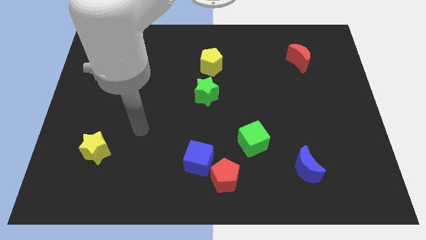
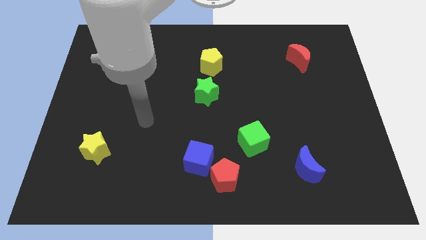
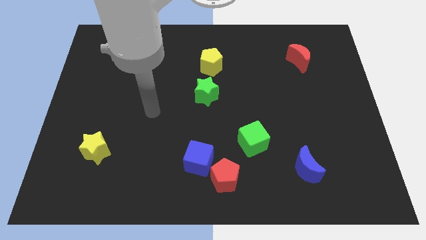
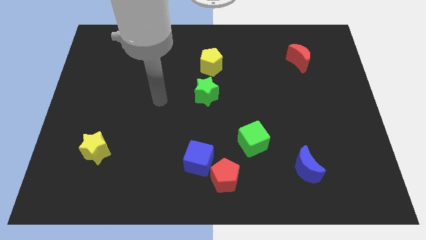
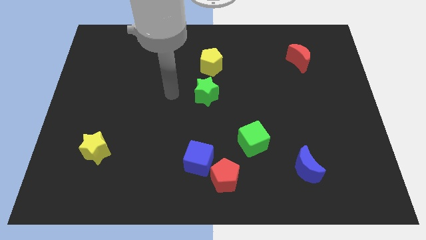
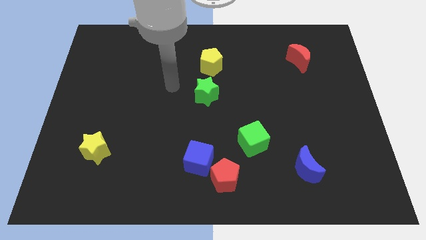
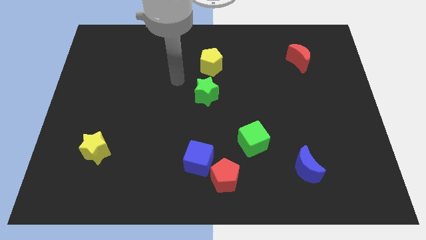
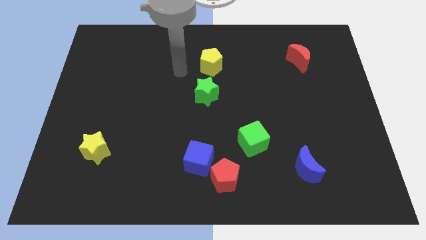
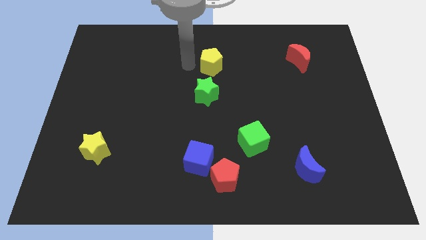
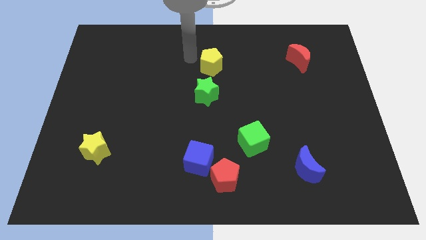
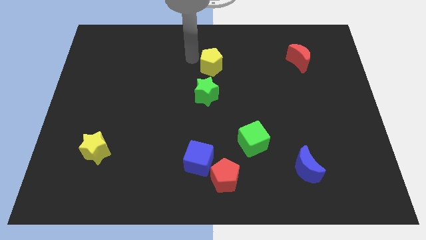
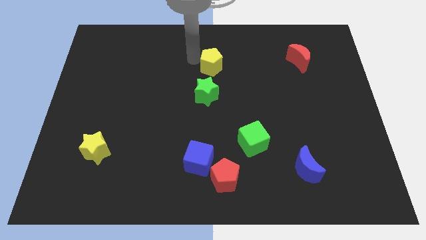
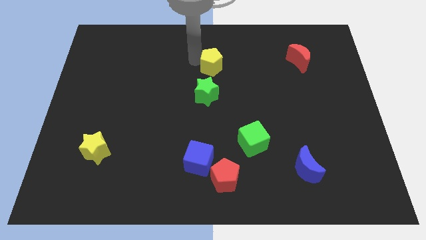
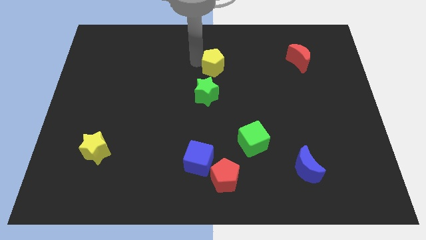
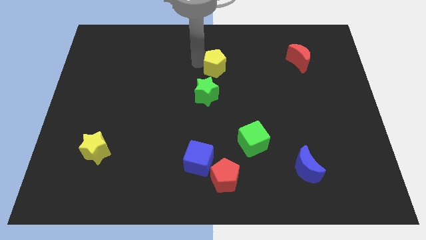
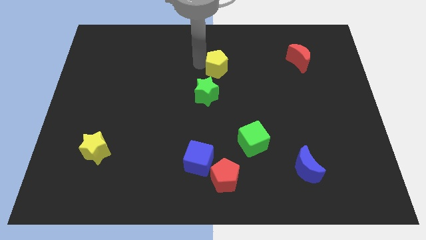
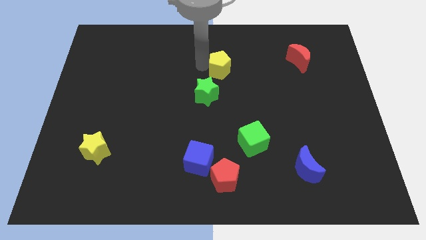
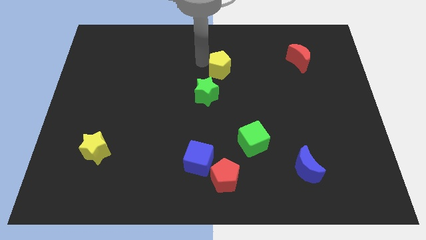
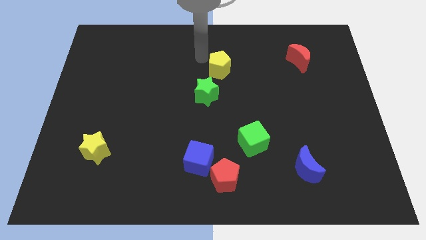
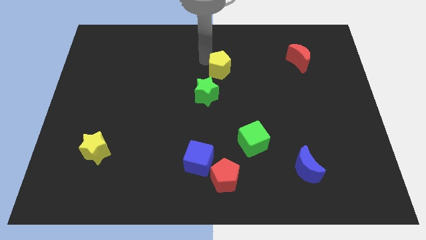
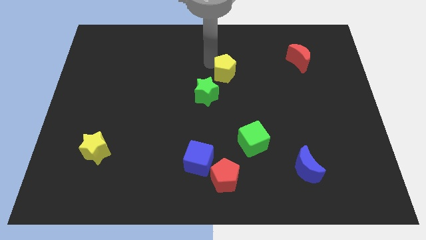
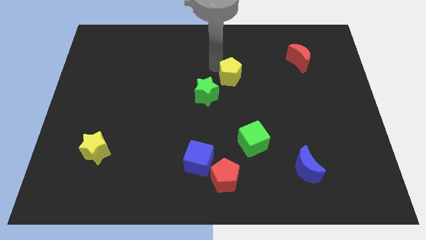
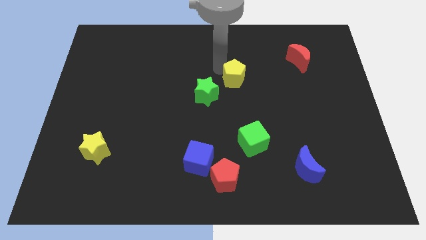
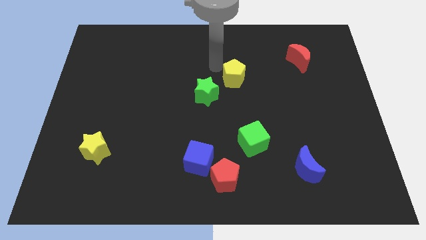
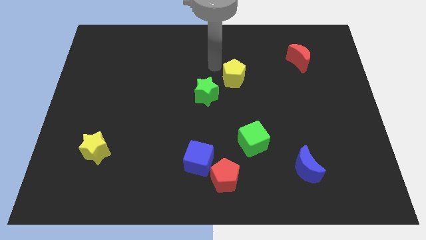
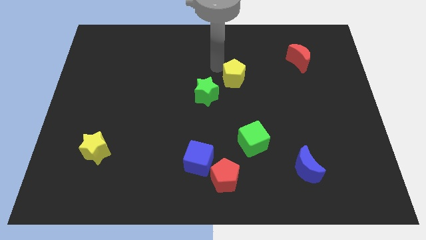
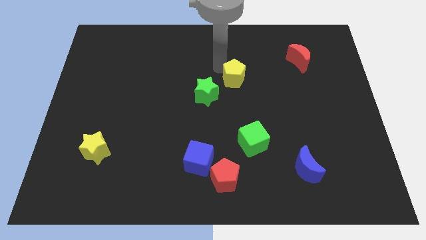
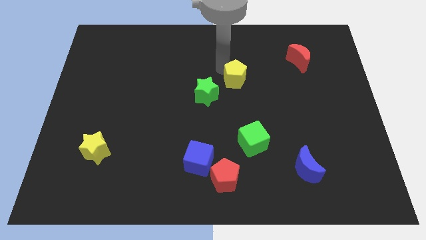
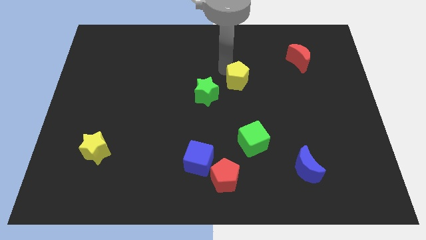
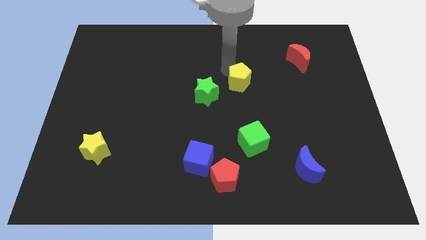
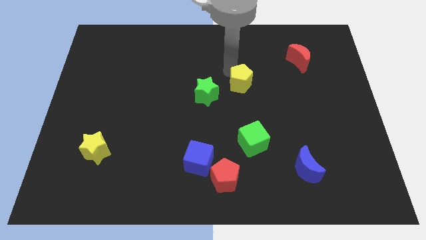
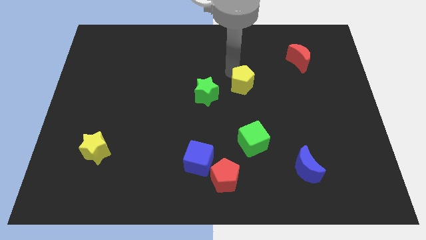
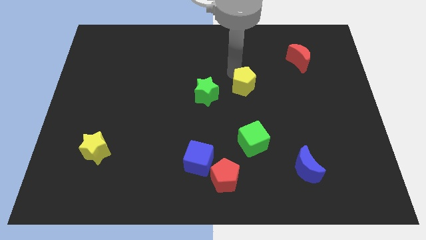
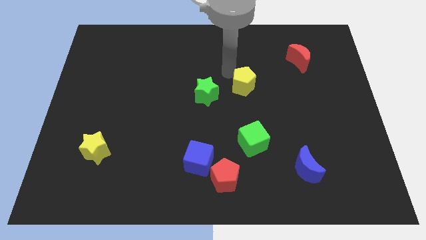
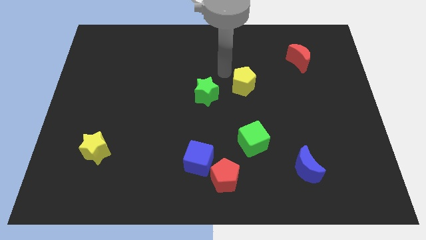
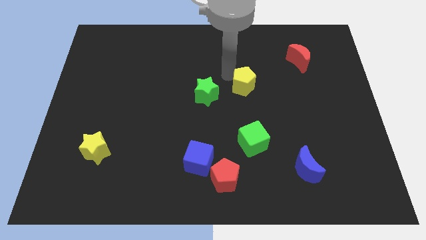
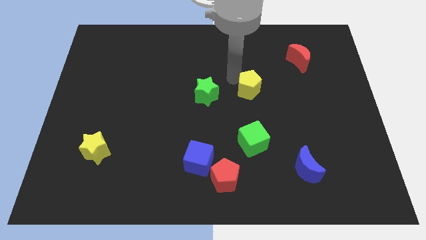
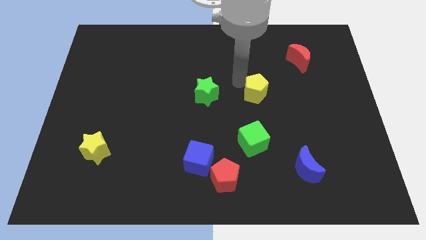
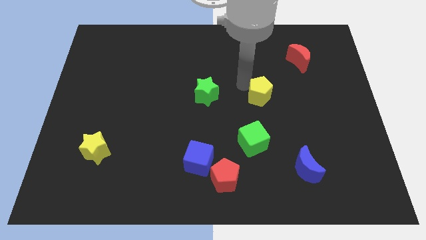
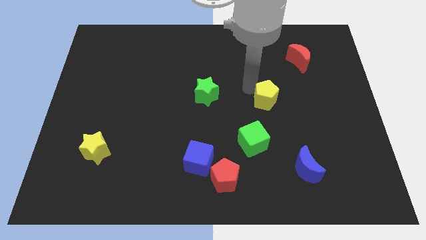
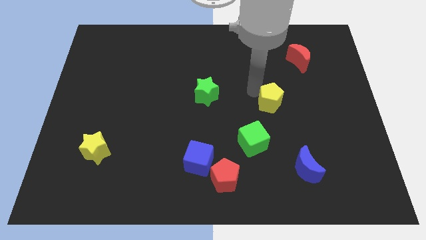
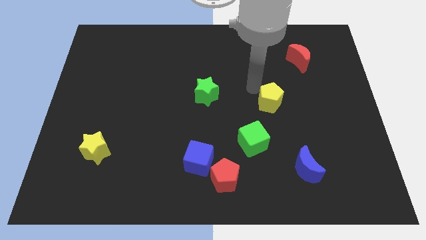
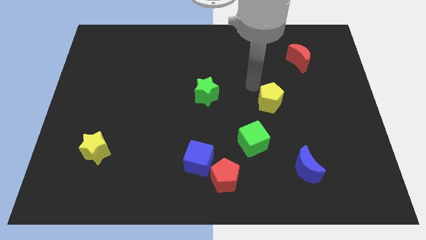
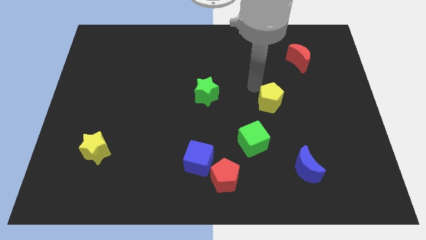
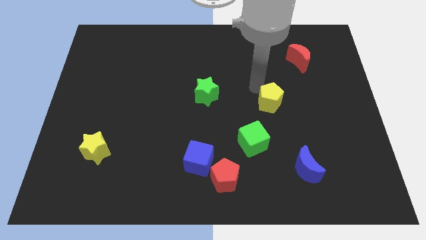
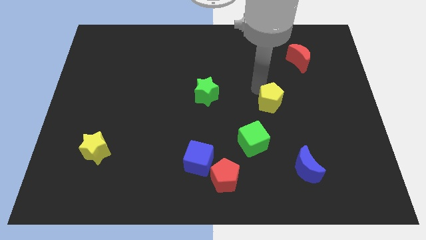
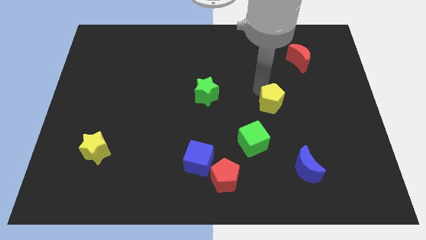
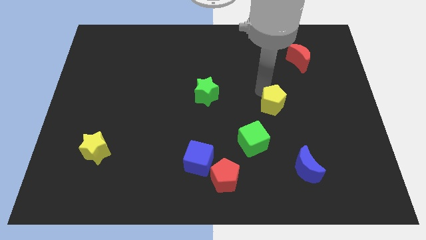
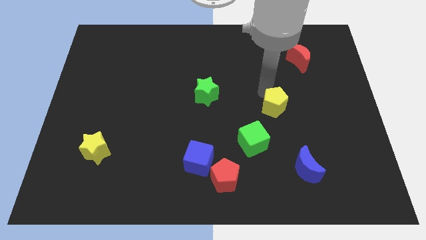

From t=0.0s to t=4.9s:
push the yellow pentagon downwards and then to the right

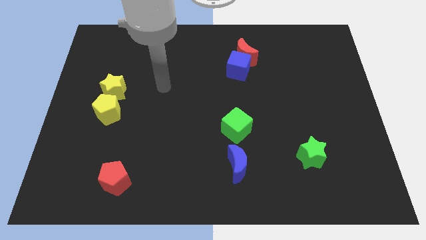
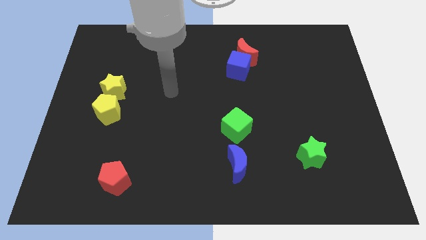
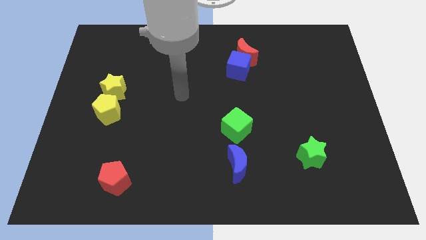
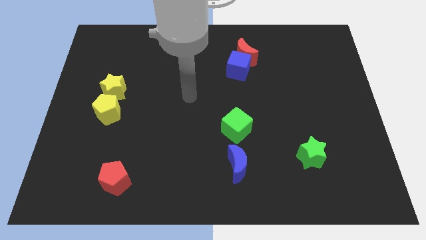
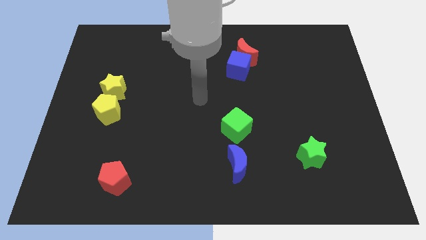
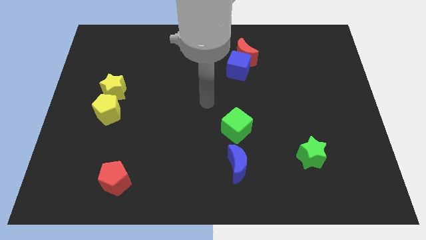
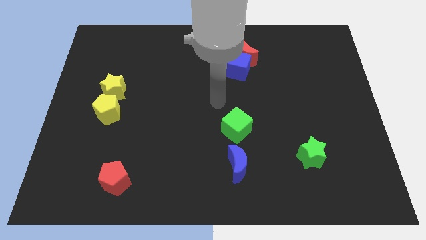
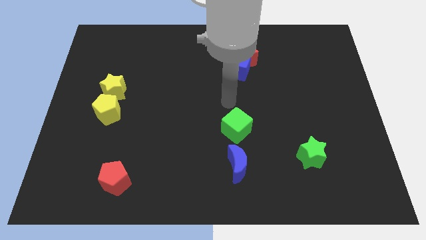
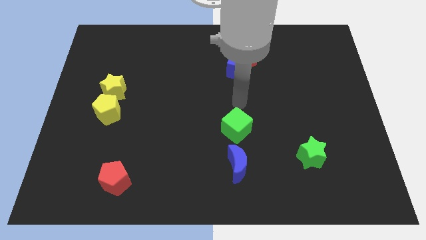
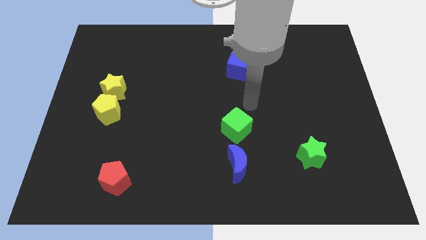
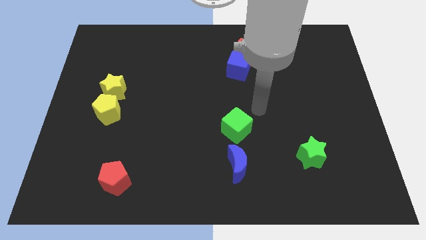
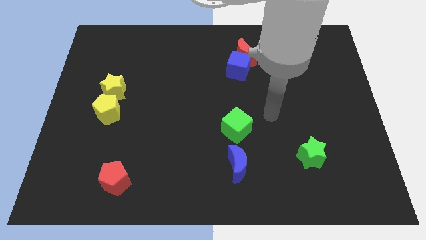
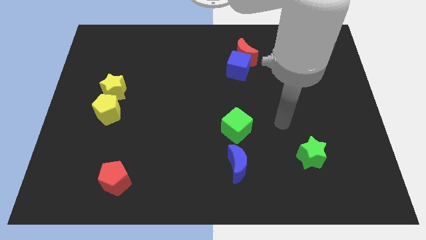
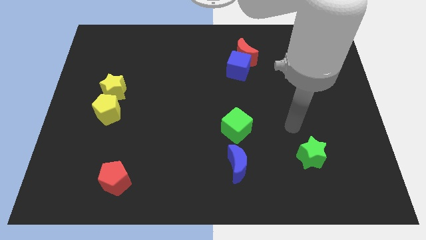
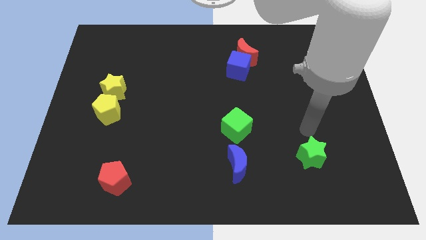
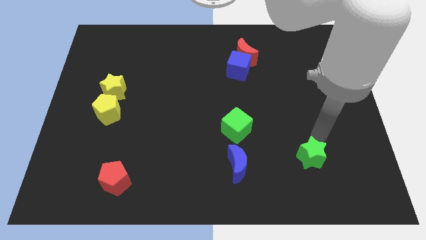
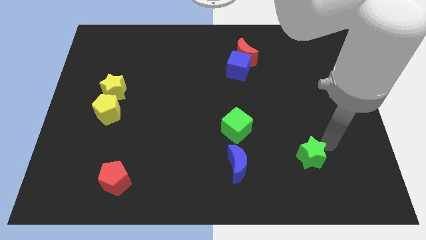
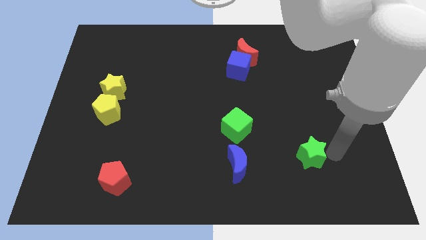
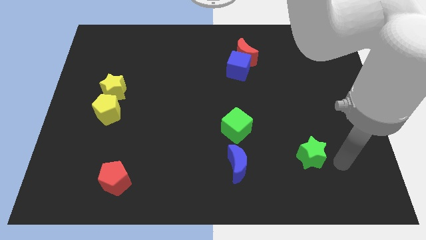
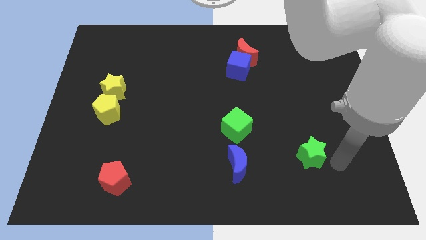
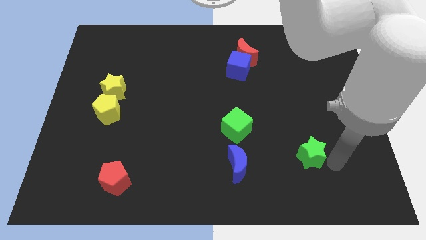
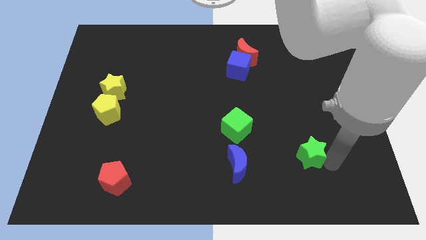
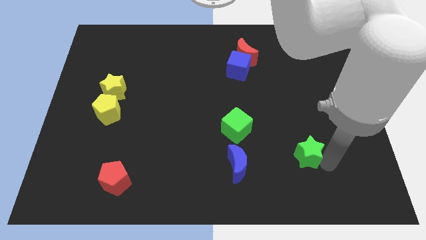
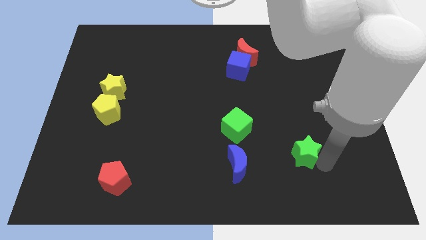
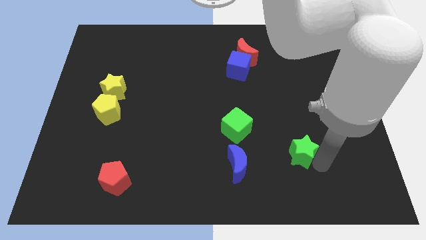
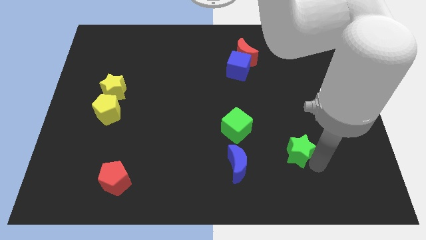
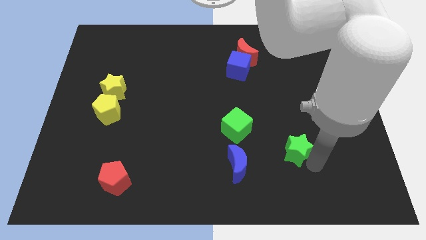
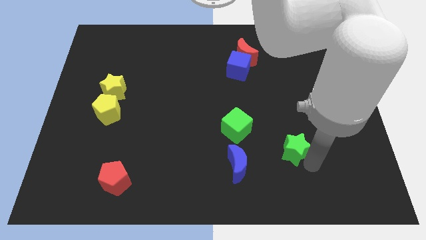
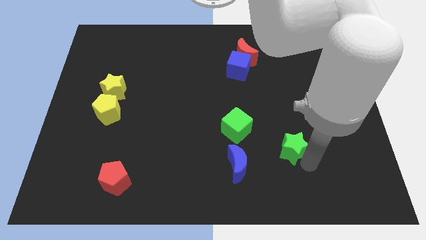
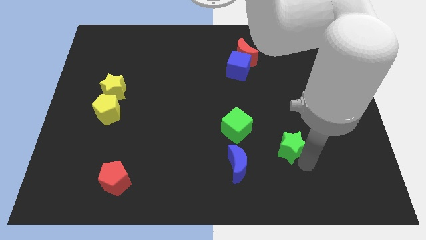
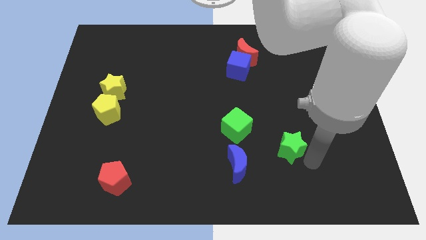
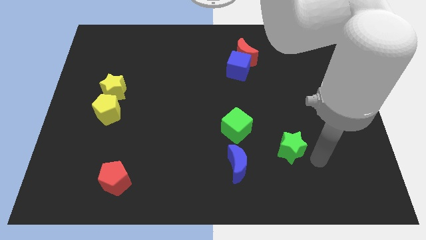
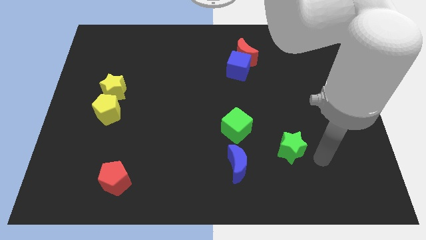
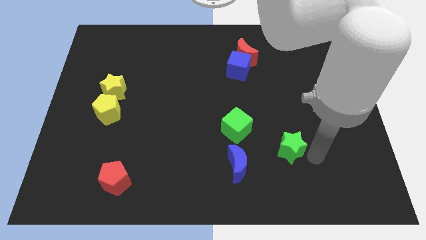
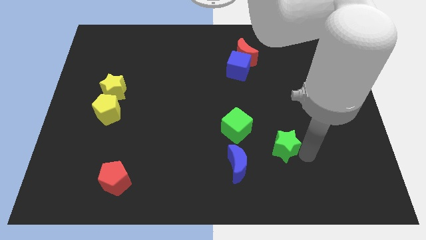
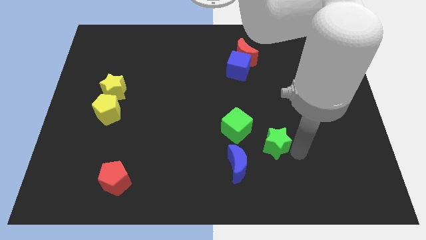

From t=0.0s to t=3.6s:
slightly slide the green star left
